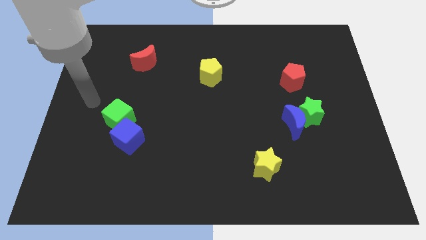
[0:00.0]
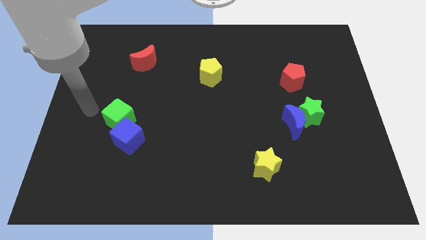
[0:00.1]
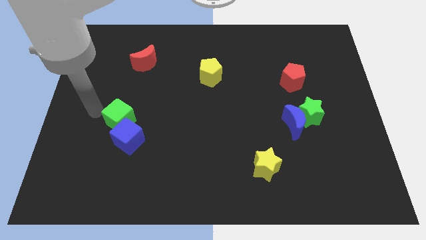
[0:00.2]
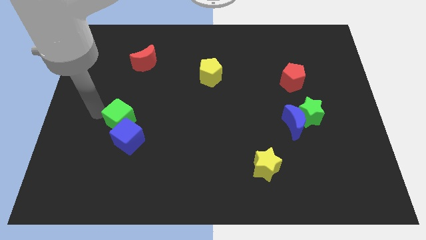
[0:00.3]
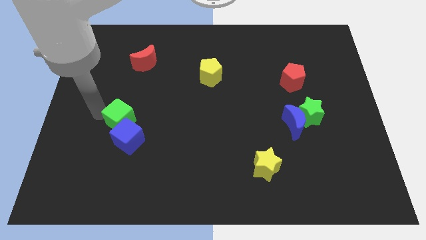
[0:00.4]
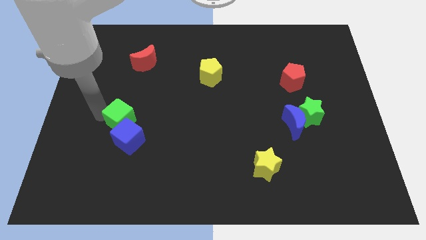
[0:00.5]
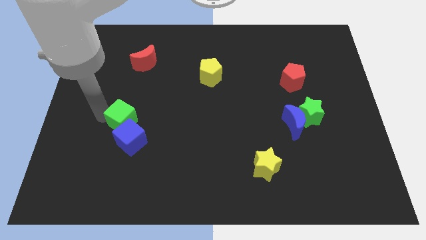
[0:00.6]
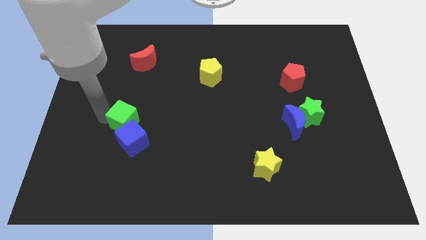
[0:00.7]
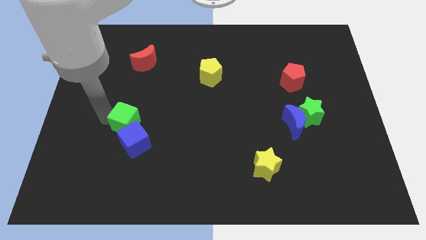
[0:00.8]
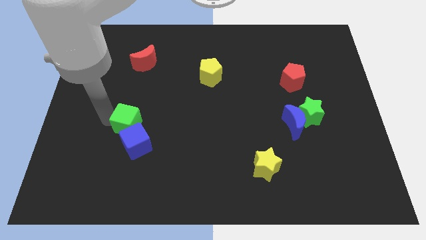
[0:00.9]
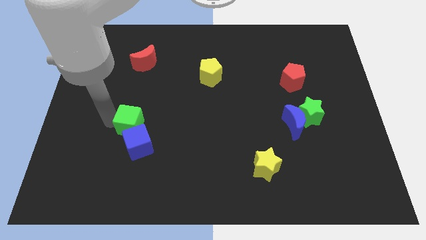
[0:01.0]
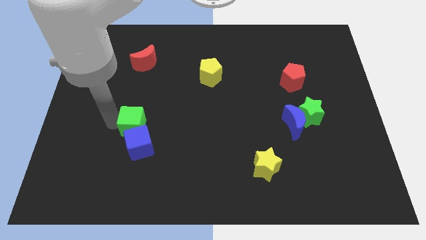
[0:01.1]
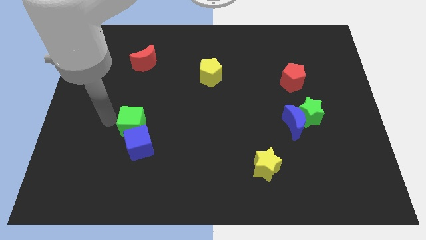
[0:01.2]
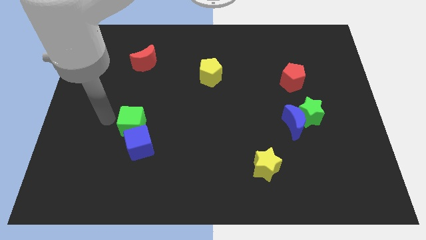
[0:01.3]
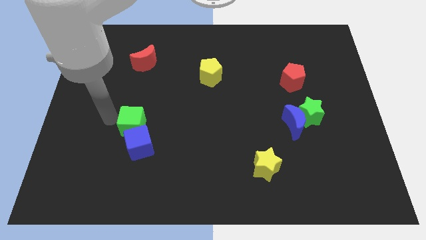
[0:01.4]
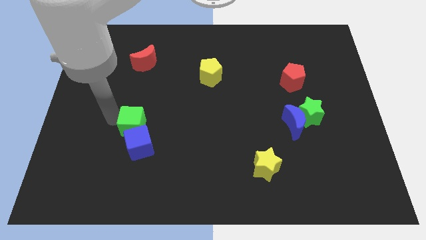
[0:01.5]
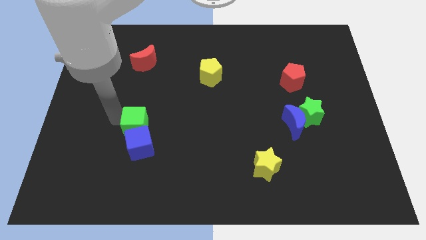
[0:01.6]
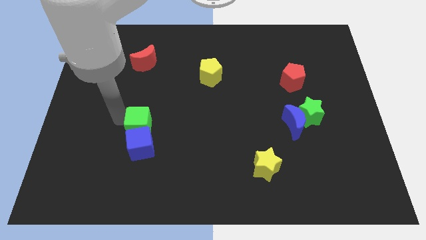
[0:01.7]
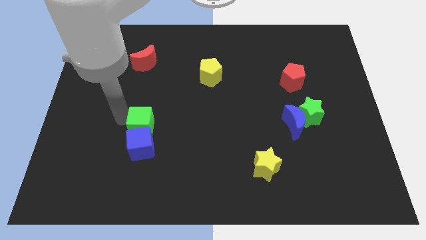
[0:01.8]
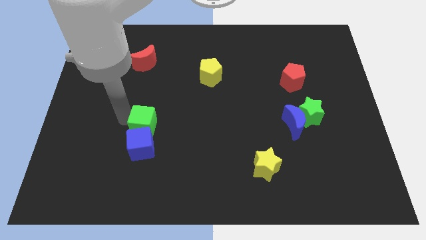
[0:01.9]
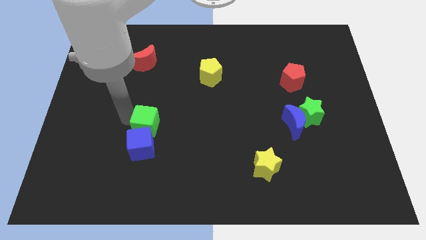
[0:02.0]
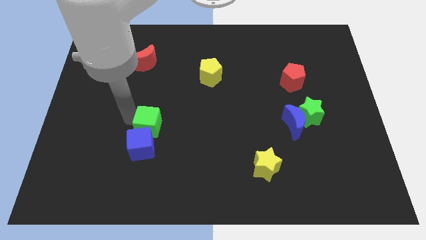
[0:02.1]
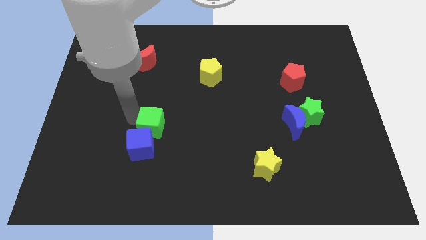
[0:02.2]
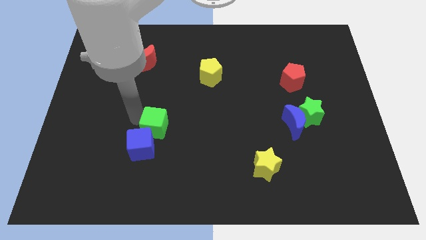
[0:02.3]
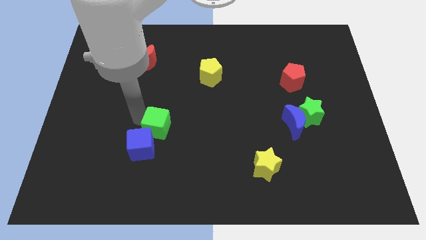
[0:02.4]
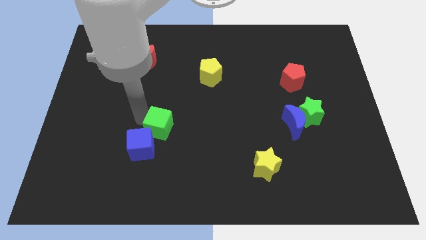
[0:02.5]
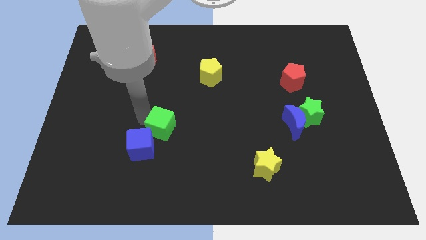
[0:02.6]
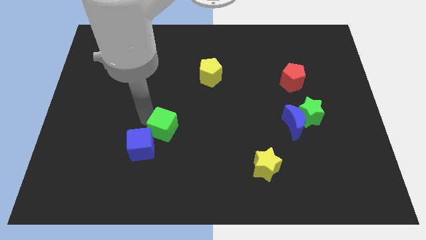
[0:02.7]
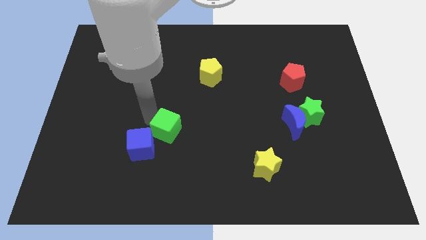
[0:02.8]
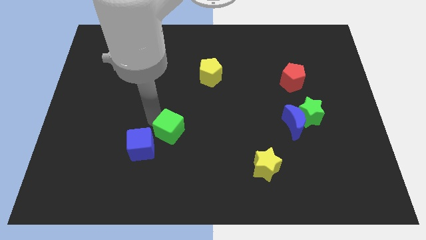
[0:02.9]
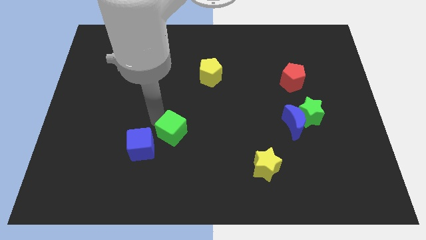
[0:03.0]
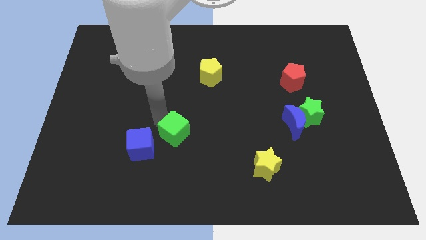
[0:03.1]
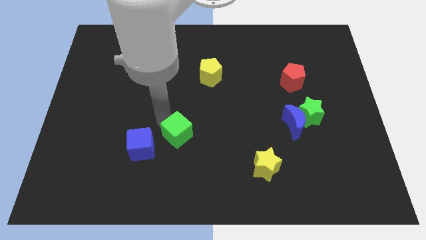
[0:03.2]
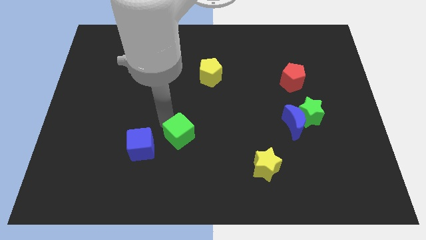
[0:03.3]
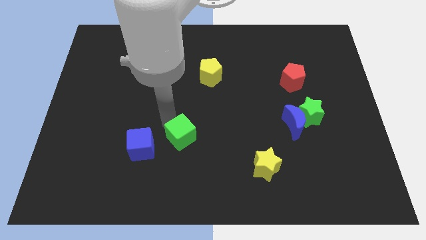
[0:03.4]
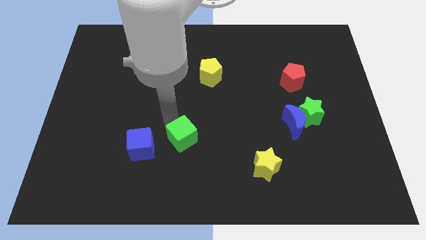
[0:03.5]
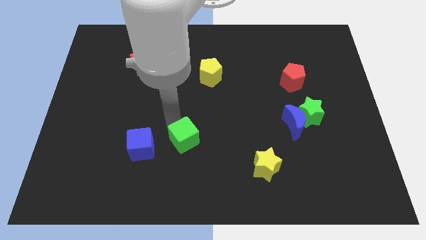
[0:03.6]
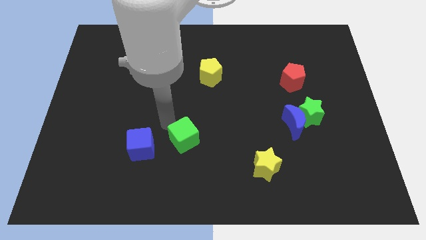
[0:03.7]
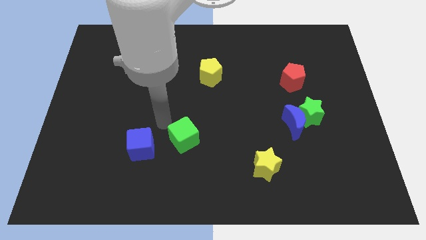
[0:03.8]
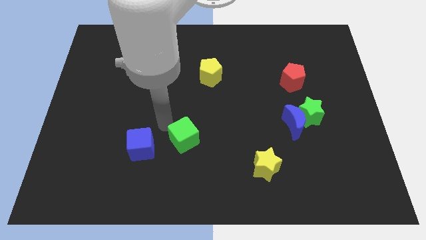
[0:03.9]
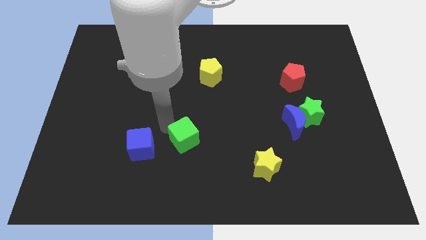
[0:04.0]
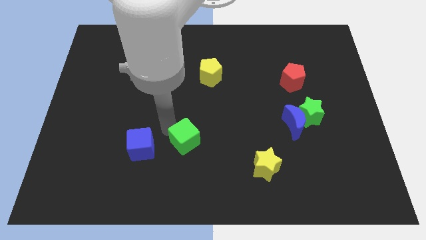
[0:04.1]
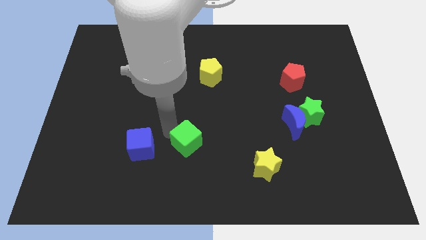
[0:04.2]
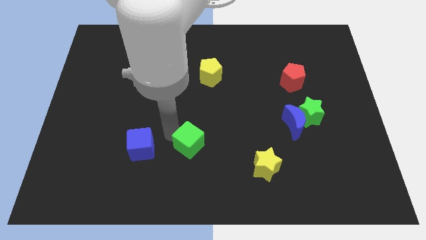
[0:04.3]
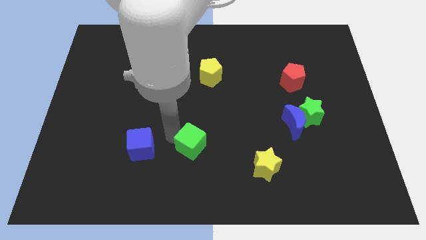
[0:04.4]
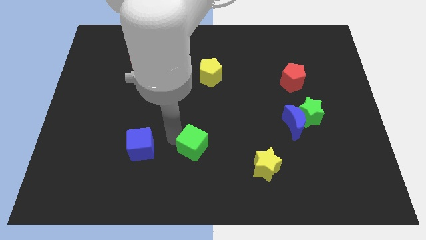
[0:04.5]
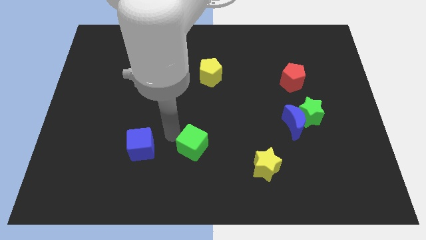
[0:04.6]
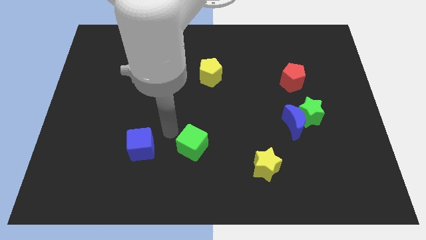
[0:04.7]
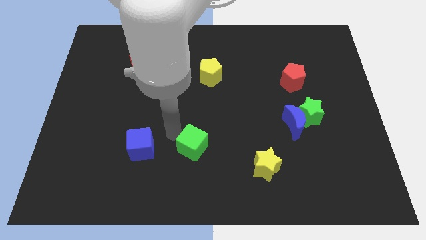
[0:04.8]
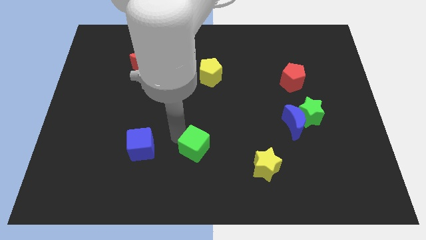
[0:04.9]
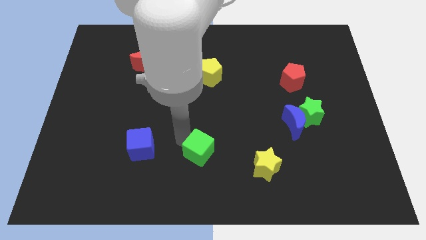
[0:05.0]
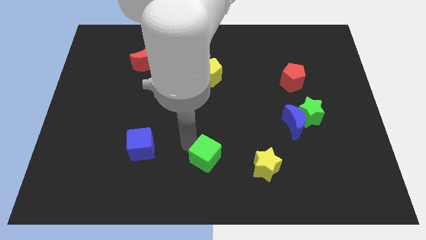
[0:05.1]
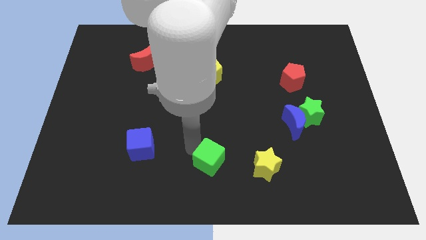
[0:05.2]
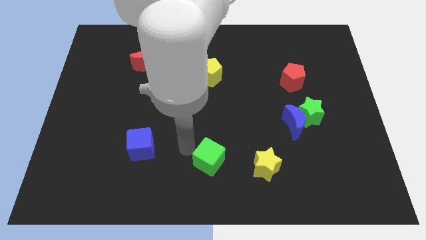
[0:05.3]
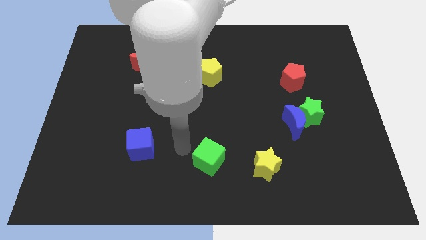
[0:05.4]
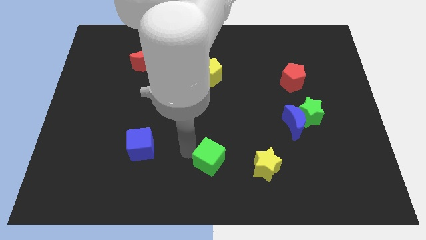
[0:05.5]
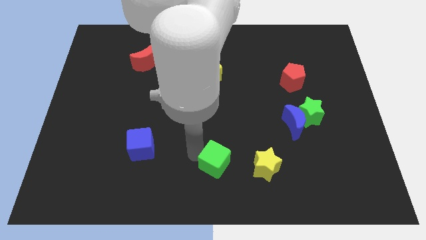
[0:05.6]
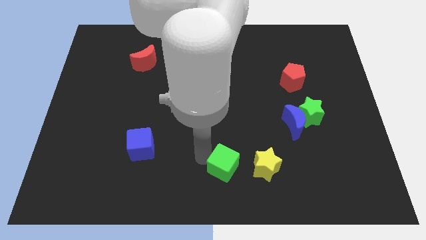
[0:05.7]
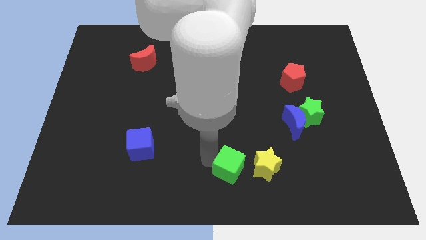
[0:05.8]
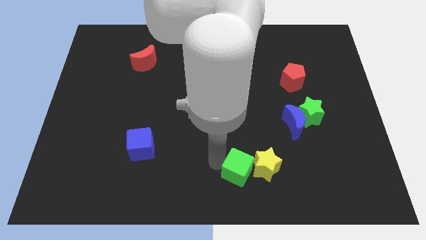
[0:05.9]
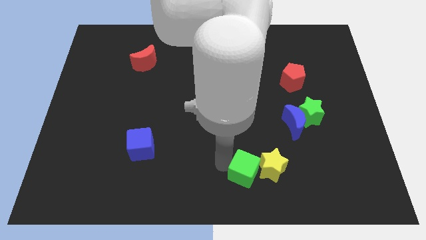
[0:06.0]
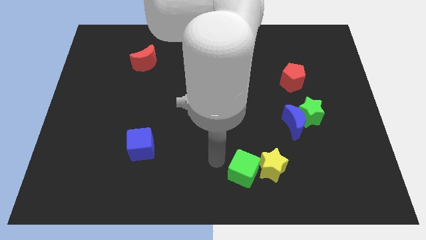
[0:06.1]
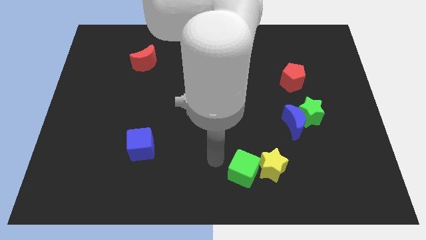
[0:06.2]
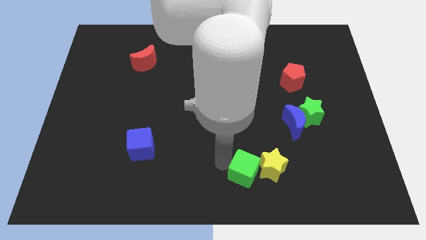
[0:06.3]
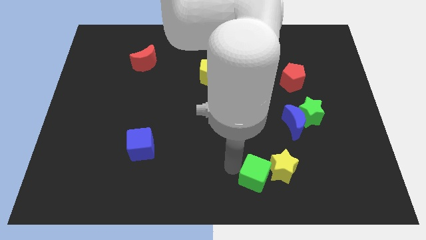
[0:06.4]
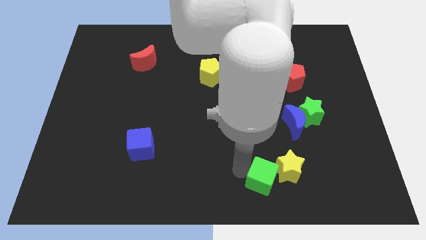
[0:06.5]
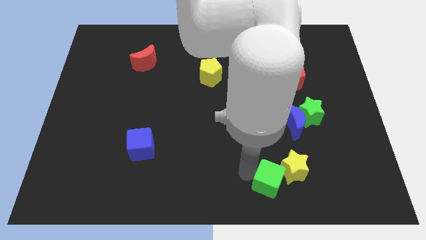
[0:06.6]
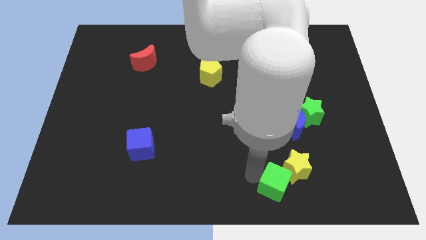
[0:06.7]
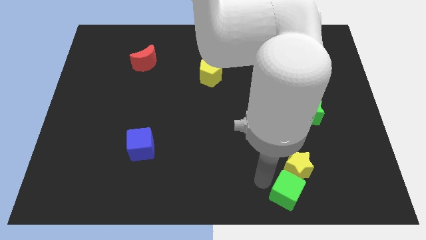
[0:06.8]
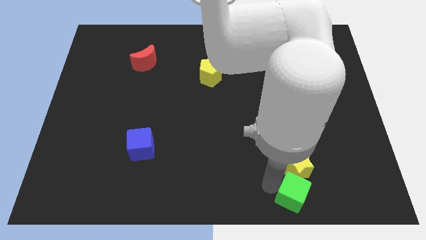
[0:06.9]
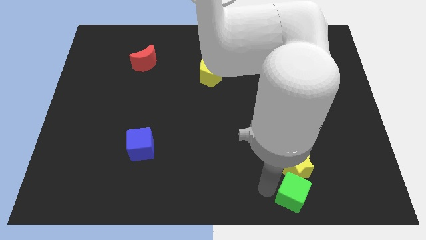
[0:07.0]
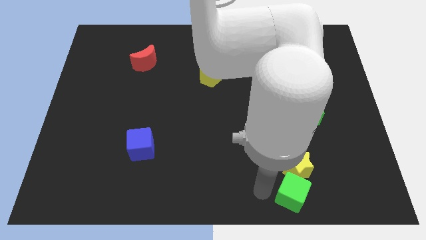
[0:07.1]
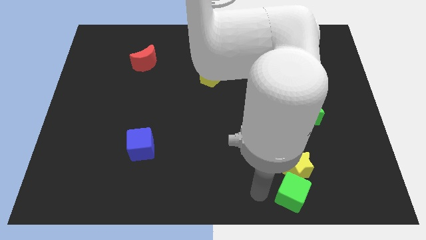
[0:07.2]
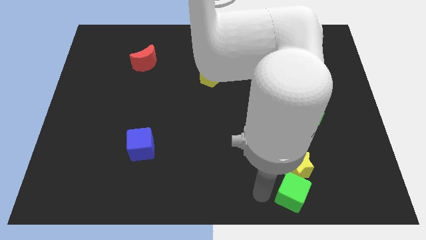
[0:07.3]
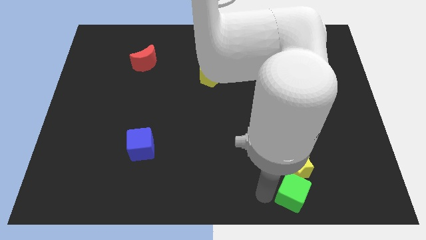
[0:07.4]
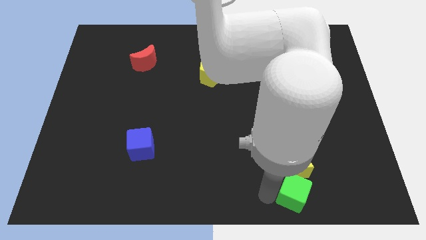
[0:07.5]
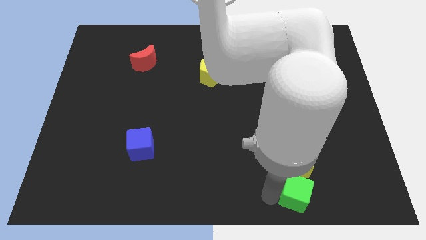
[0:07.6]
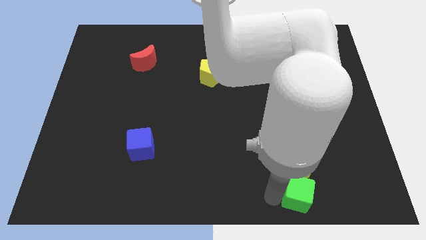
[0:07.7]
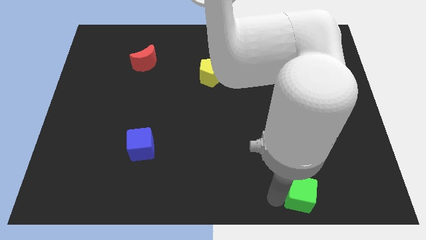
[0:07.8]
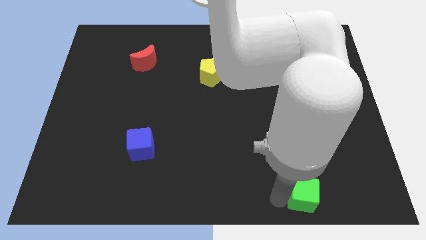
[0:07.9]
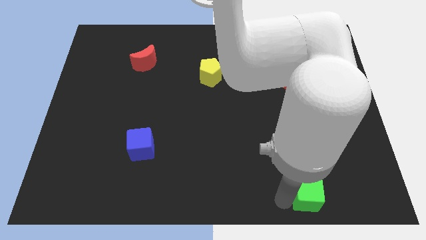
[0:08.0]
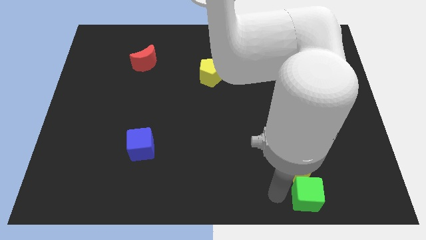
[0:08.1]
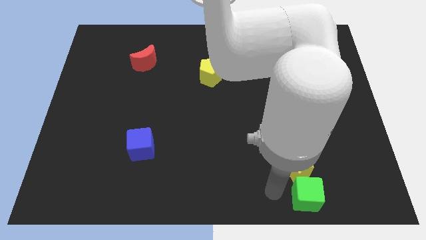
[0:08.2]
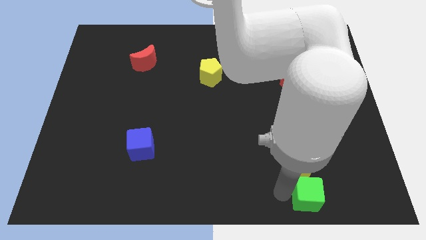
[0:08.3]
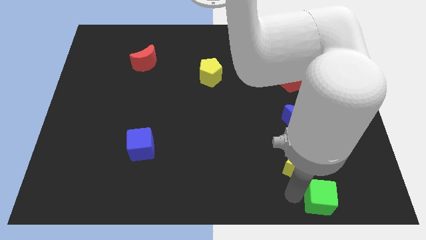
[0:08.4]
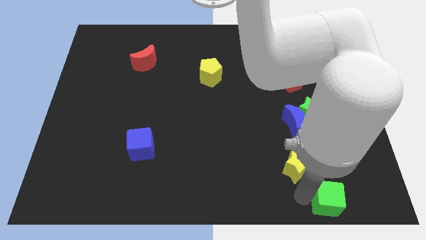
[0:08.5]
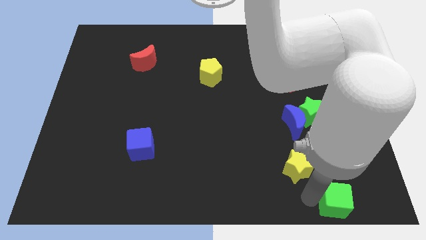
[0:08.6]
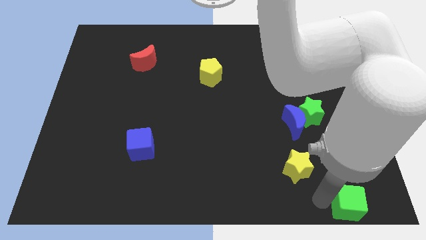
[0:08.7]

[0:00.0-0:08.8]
move the green cube to the bottom right corner
